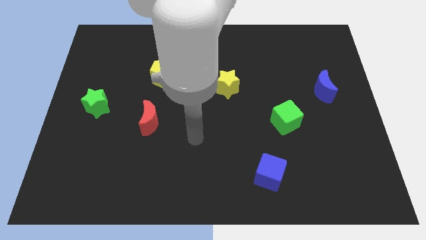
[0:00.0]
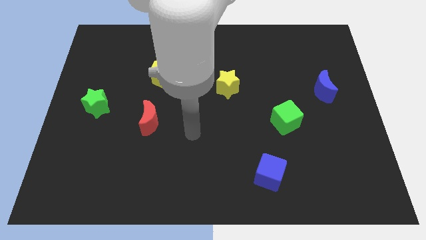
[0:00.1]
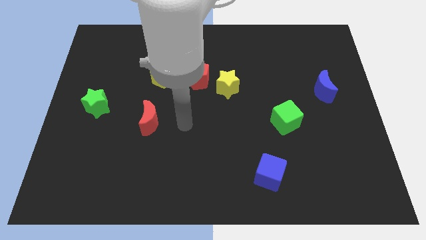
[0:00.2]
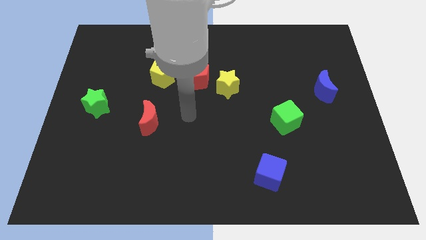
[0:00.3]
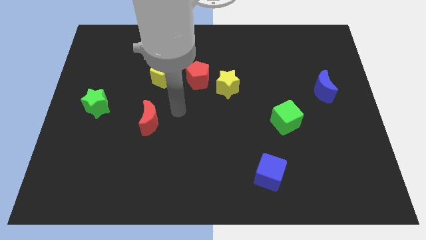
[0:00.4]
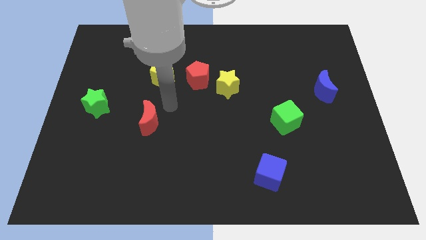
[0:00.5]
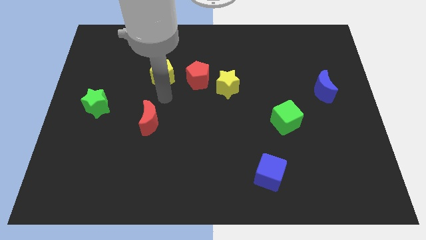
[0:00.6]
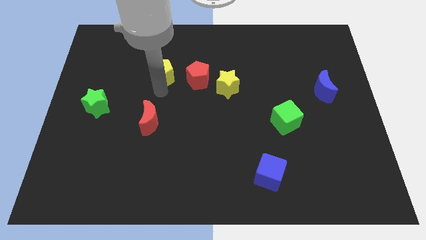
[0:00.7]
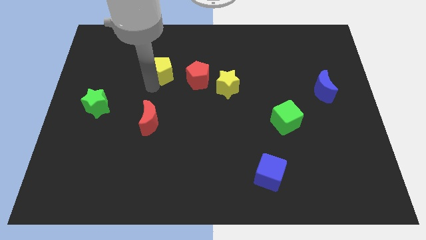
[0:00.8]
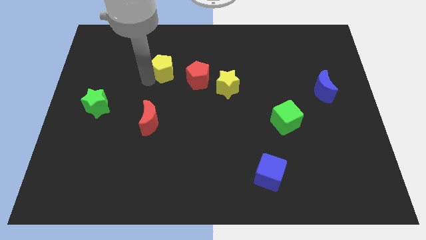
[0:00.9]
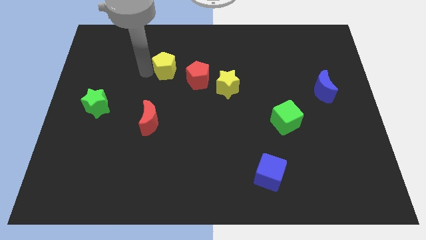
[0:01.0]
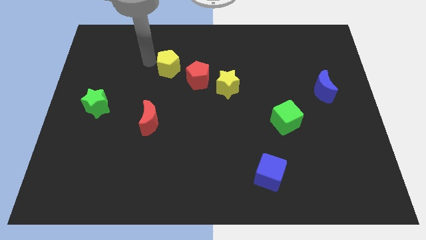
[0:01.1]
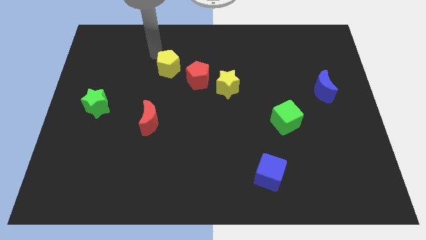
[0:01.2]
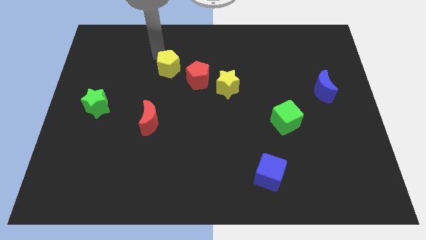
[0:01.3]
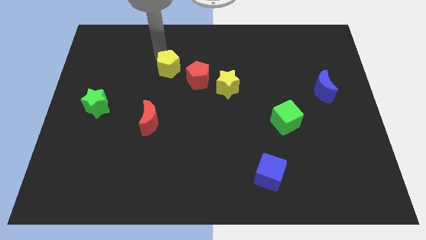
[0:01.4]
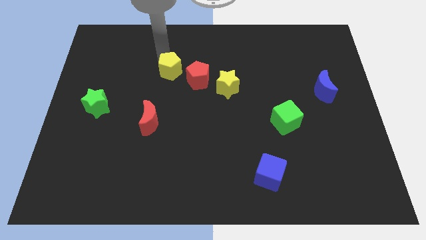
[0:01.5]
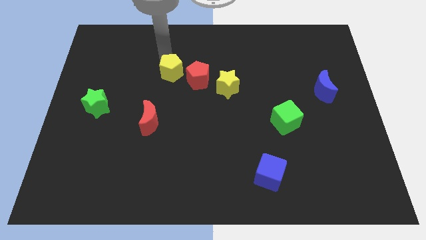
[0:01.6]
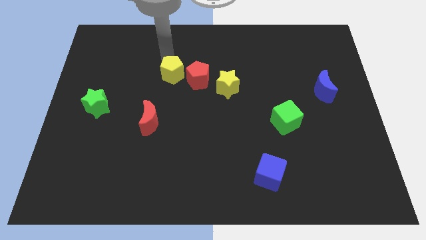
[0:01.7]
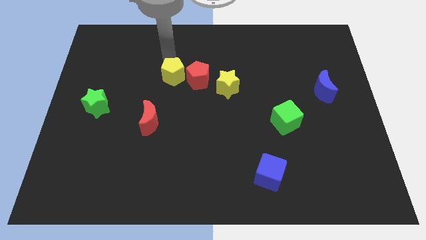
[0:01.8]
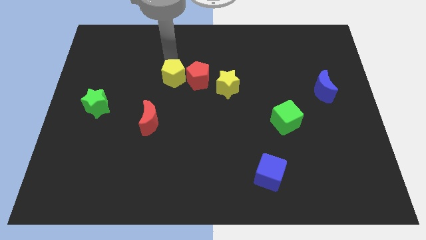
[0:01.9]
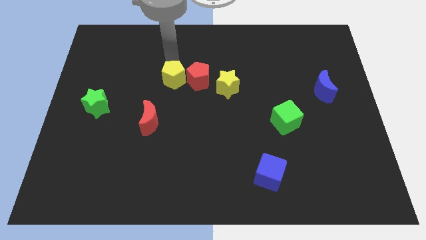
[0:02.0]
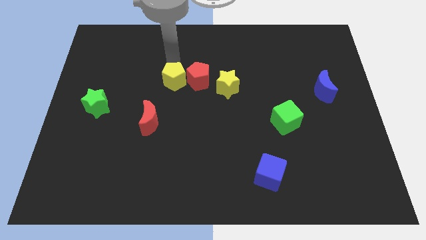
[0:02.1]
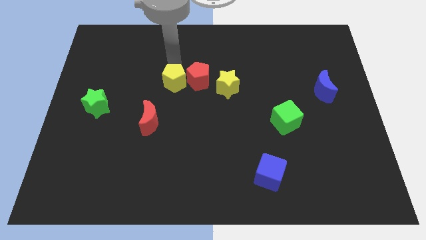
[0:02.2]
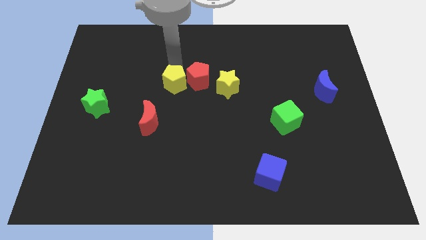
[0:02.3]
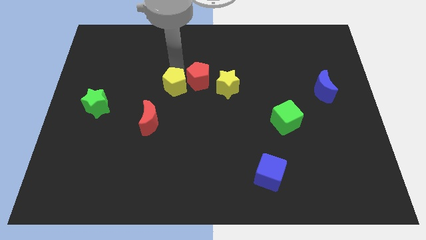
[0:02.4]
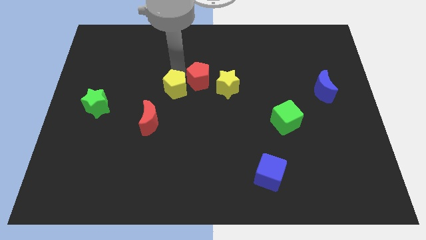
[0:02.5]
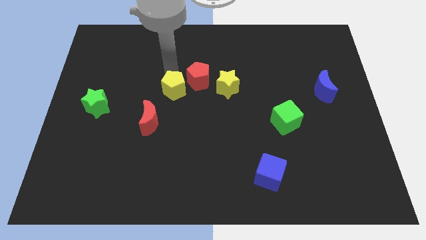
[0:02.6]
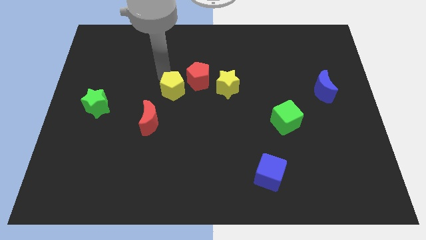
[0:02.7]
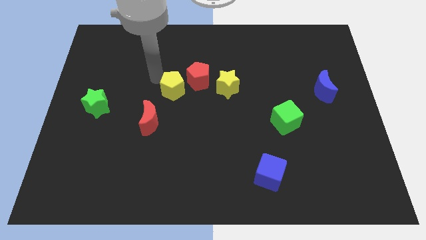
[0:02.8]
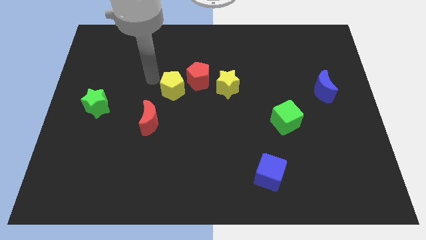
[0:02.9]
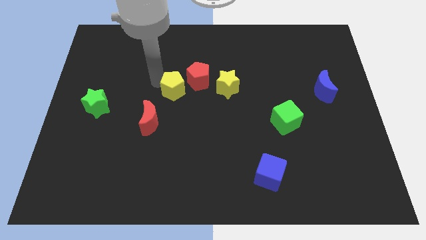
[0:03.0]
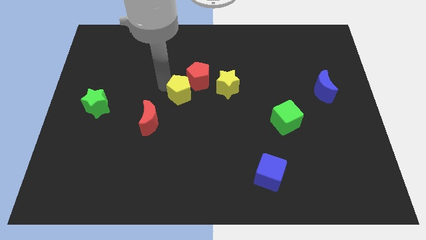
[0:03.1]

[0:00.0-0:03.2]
slightly push the yellow pentagon down and to the right

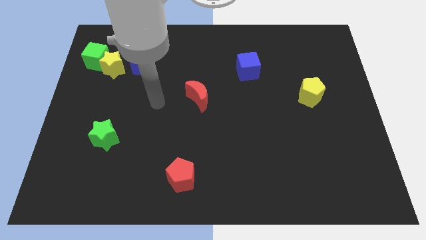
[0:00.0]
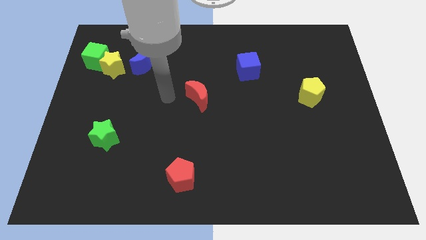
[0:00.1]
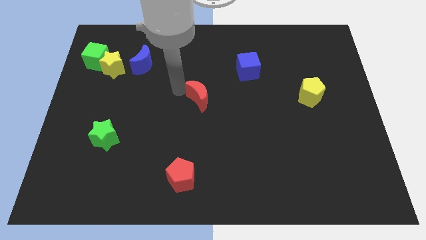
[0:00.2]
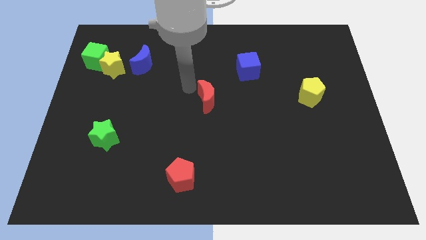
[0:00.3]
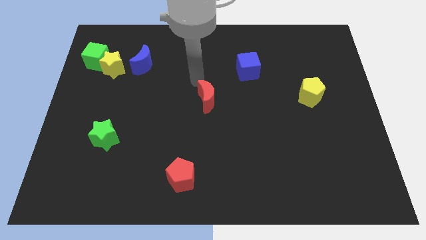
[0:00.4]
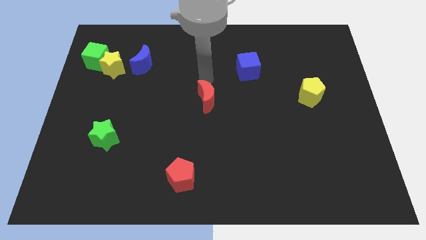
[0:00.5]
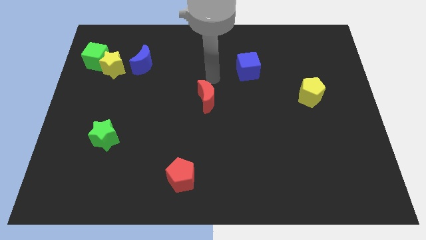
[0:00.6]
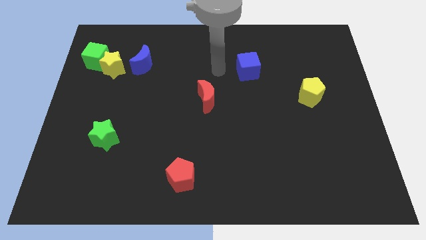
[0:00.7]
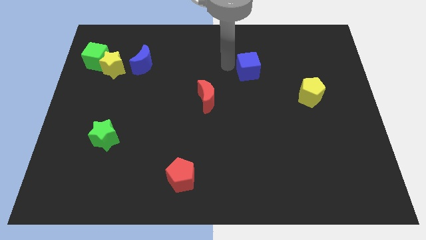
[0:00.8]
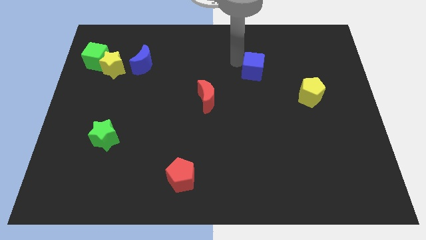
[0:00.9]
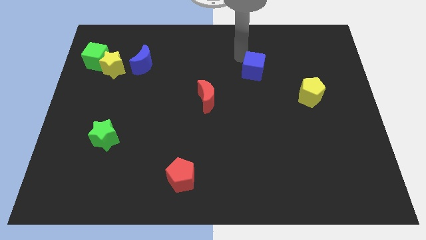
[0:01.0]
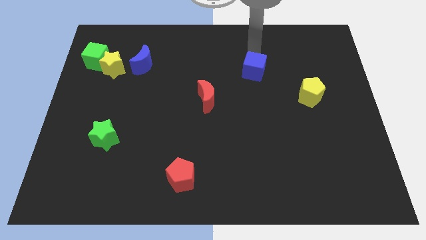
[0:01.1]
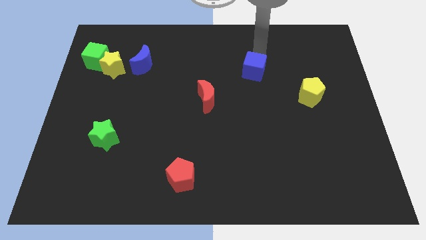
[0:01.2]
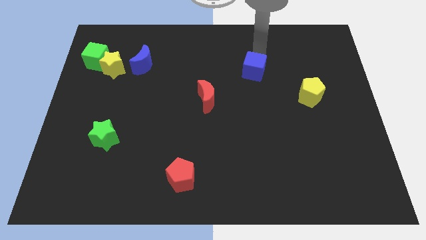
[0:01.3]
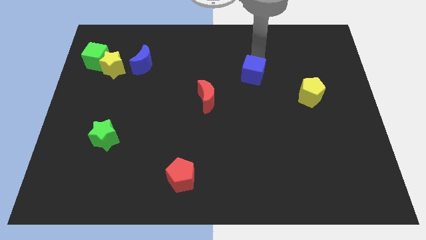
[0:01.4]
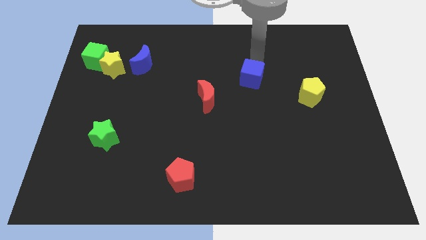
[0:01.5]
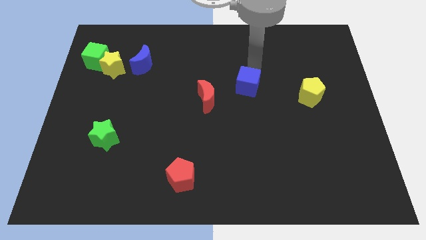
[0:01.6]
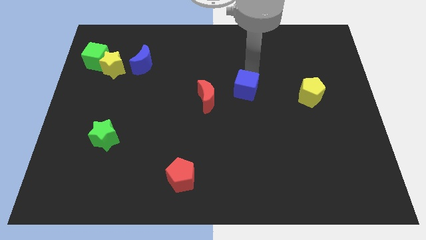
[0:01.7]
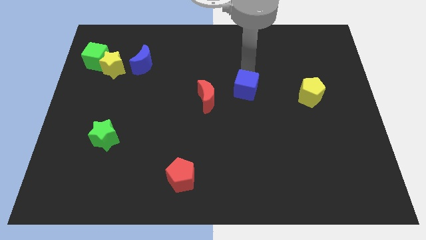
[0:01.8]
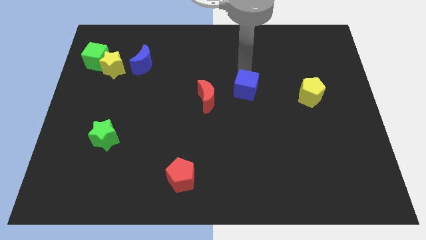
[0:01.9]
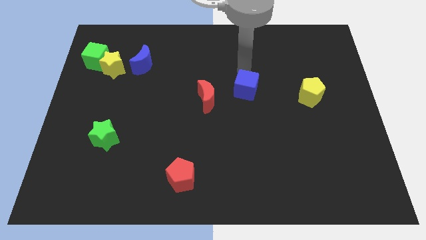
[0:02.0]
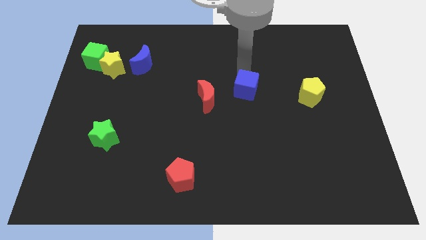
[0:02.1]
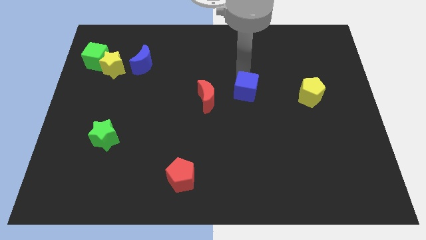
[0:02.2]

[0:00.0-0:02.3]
slide the blue cube somewhat down

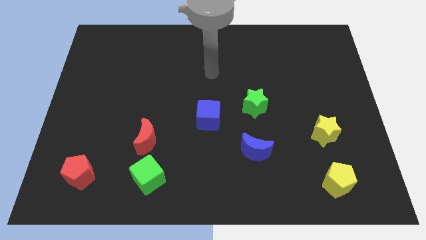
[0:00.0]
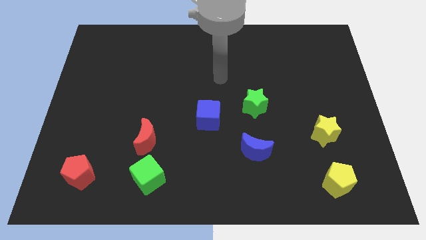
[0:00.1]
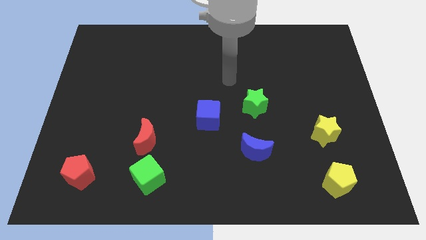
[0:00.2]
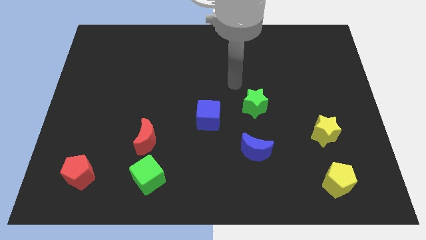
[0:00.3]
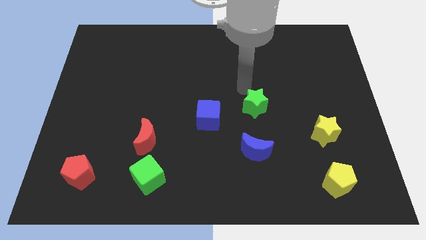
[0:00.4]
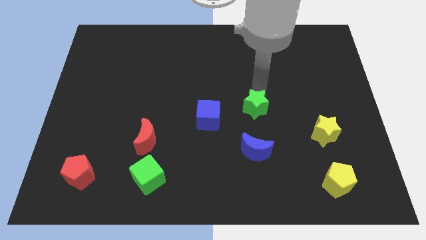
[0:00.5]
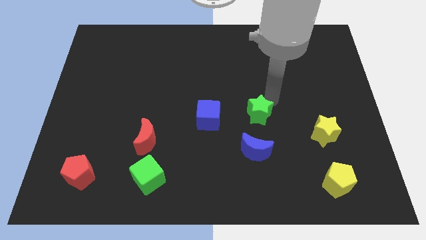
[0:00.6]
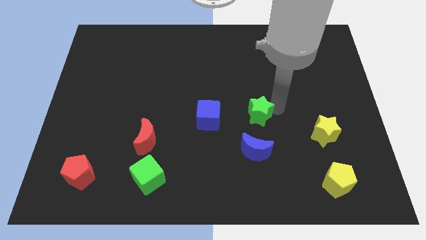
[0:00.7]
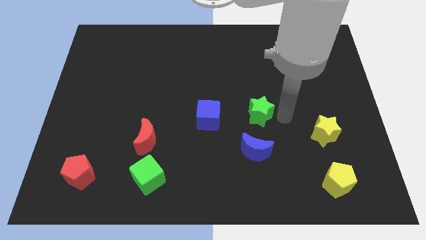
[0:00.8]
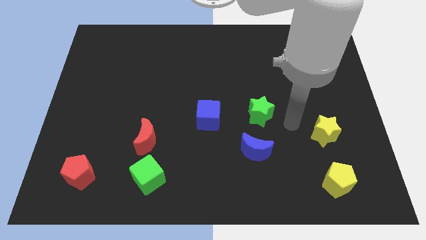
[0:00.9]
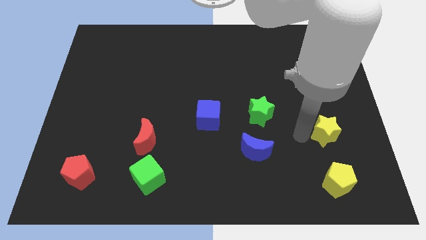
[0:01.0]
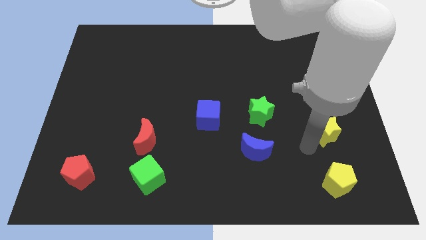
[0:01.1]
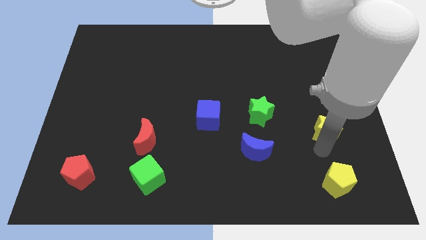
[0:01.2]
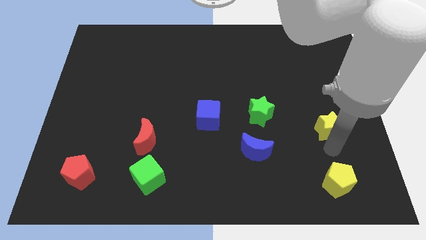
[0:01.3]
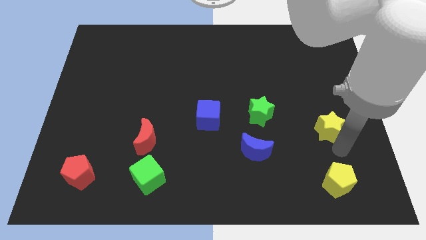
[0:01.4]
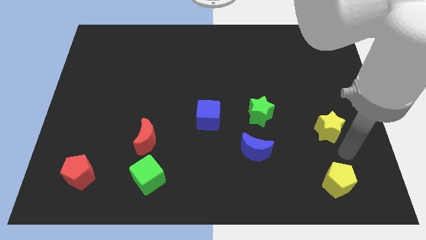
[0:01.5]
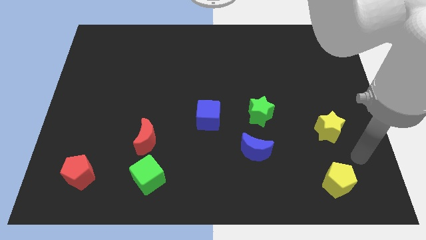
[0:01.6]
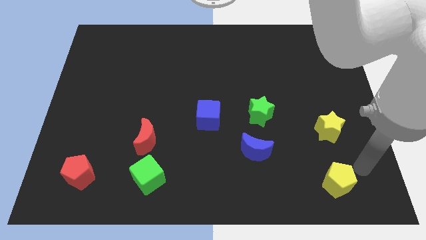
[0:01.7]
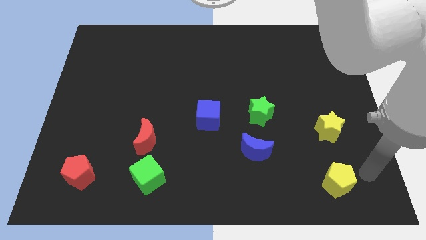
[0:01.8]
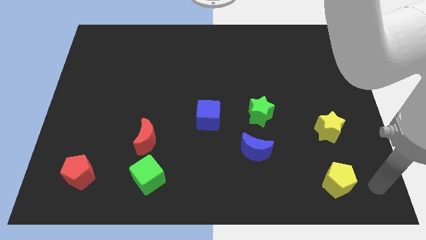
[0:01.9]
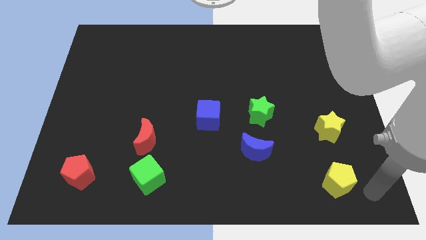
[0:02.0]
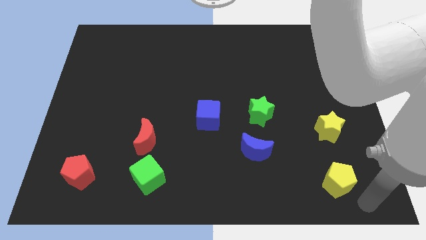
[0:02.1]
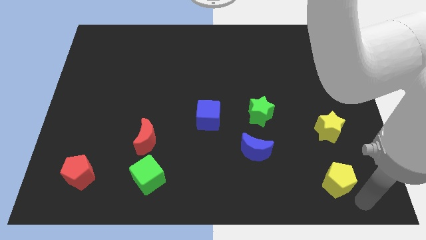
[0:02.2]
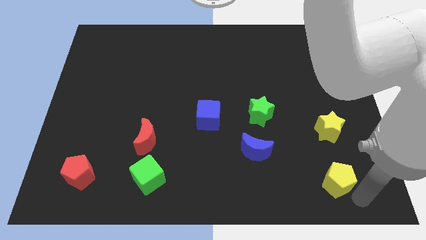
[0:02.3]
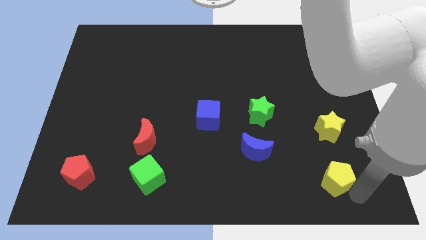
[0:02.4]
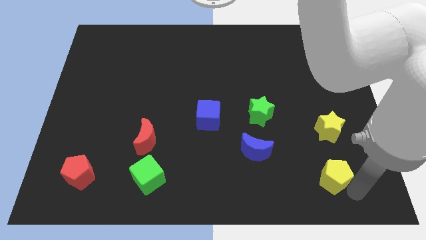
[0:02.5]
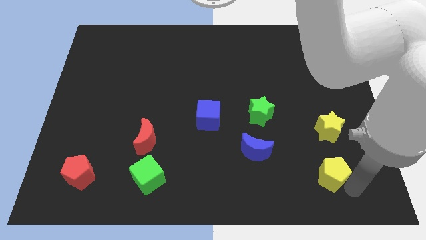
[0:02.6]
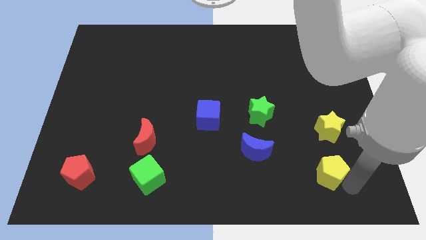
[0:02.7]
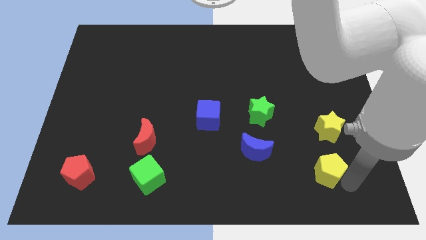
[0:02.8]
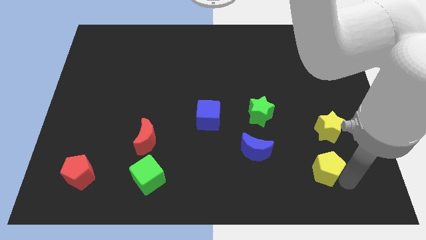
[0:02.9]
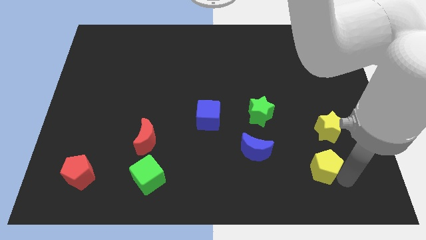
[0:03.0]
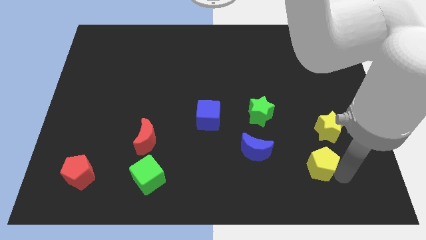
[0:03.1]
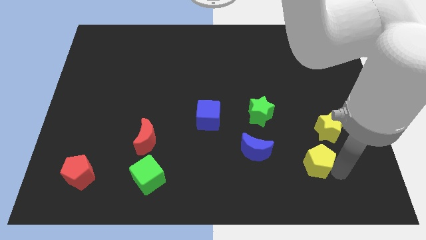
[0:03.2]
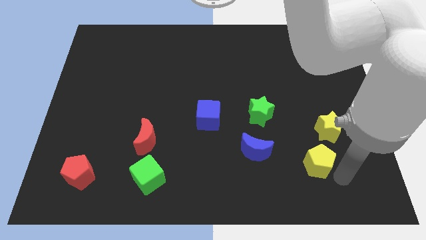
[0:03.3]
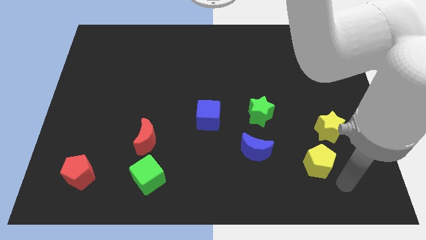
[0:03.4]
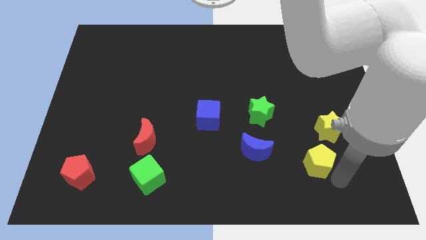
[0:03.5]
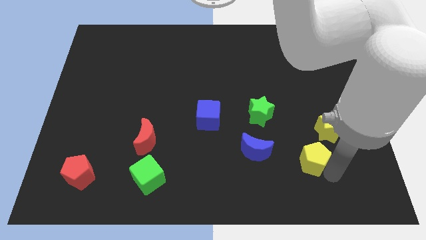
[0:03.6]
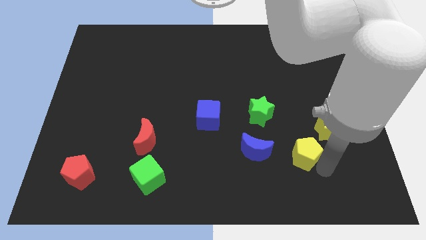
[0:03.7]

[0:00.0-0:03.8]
move the yellow pentagon a little up and left diagonally
